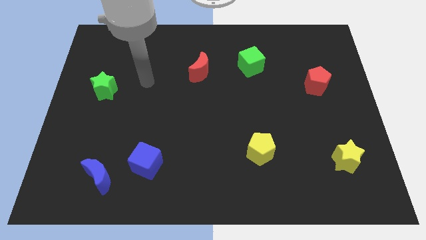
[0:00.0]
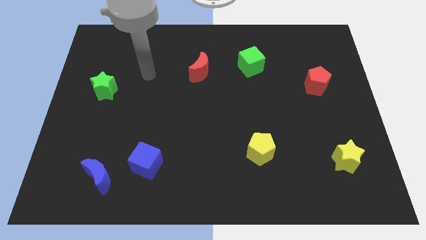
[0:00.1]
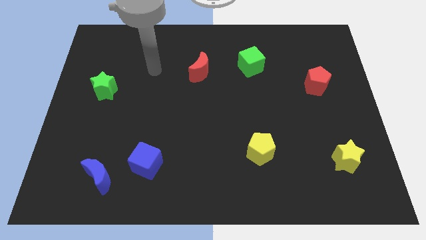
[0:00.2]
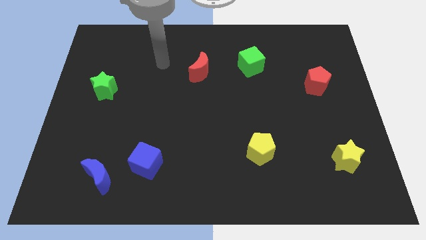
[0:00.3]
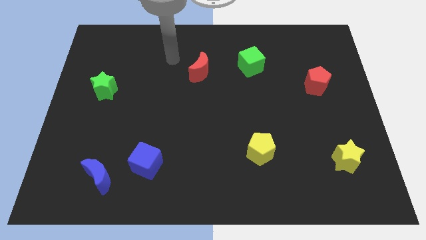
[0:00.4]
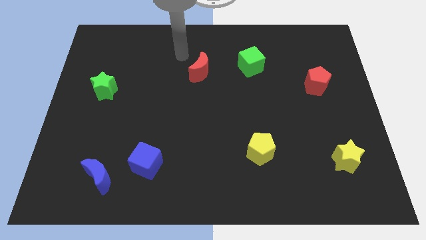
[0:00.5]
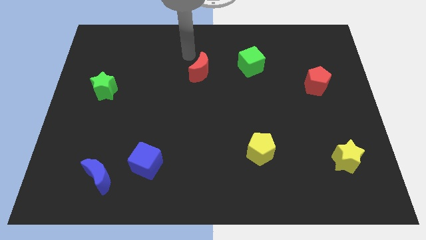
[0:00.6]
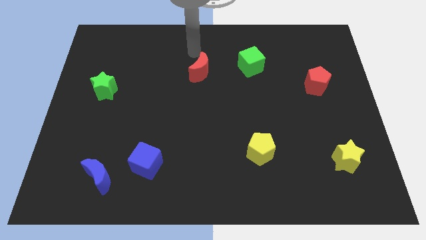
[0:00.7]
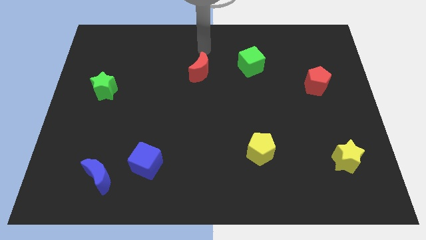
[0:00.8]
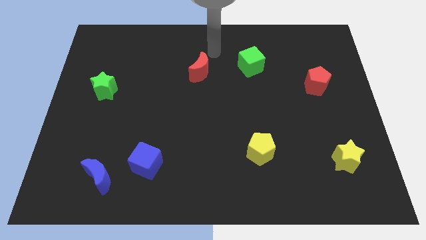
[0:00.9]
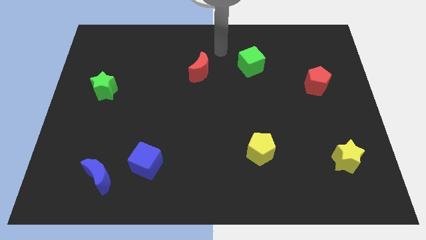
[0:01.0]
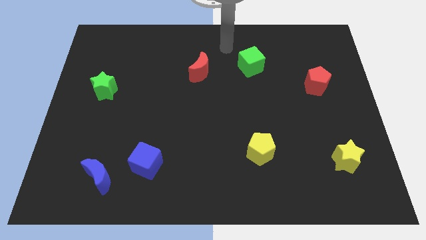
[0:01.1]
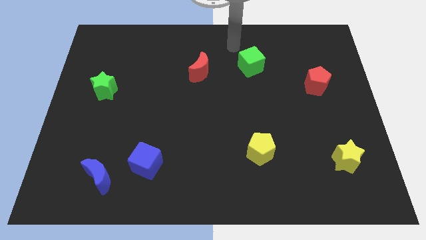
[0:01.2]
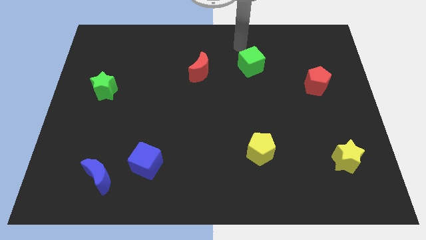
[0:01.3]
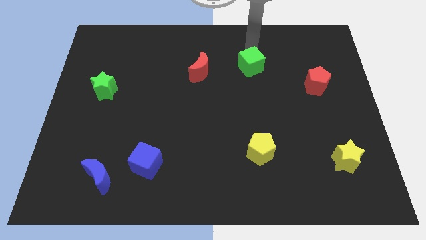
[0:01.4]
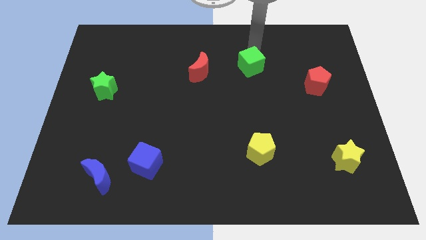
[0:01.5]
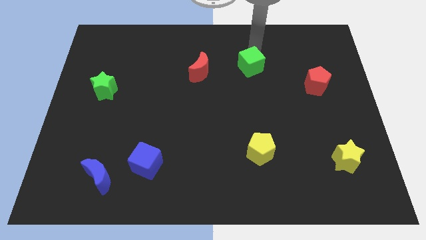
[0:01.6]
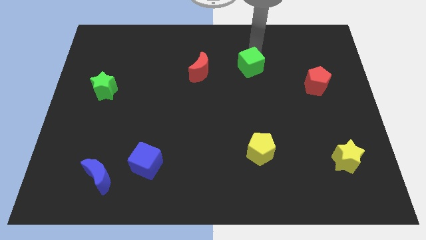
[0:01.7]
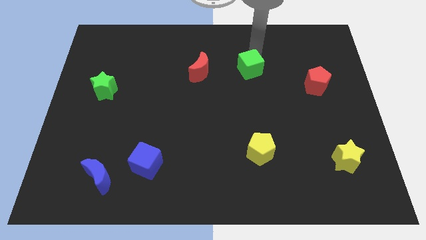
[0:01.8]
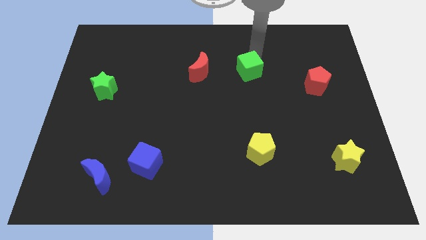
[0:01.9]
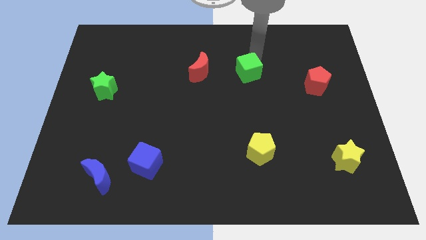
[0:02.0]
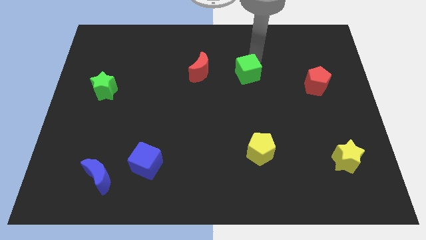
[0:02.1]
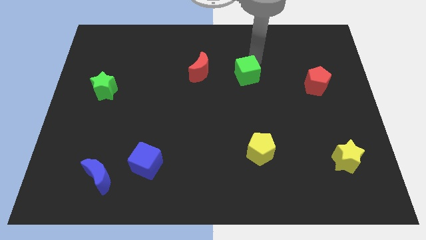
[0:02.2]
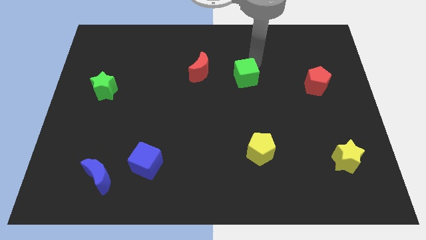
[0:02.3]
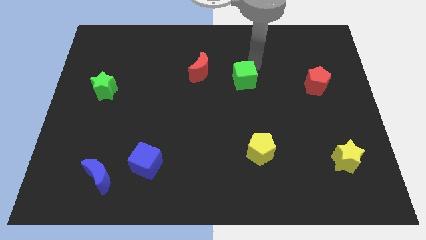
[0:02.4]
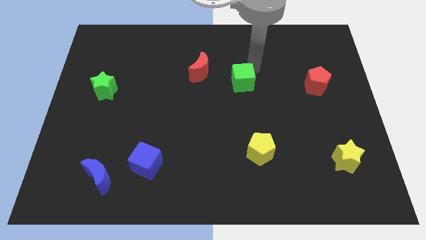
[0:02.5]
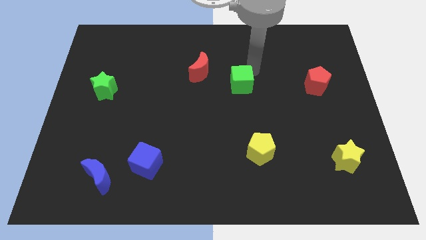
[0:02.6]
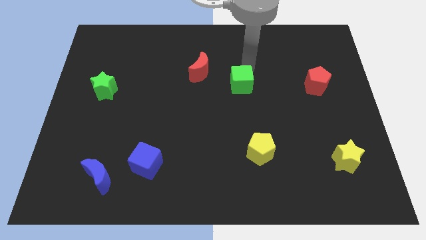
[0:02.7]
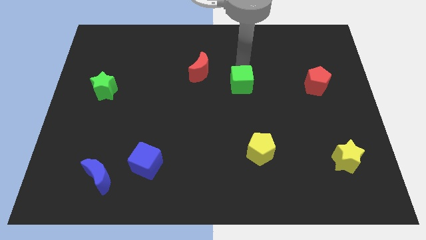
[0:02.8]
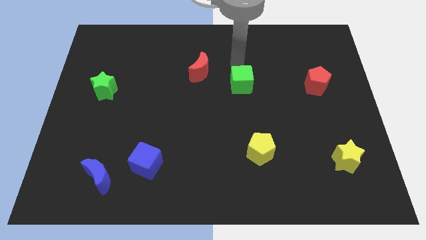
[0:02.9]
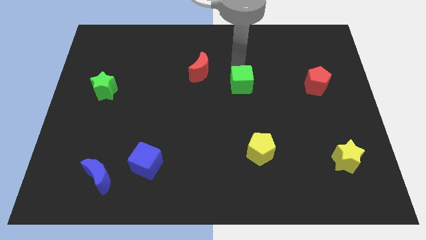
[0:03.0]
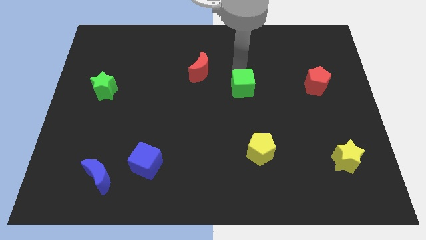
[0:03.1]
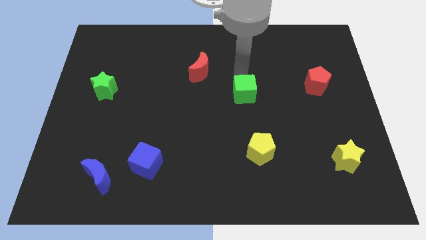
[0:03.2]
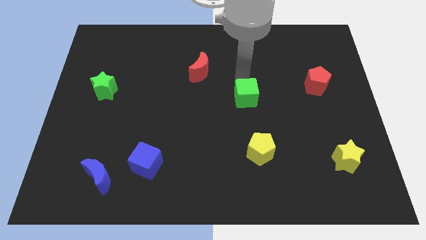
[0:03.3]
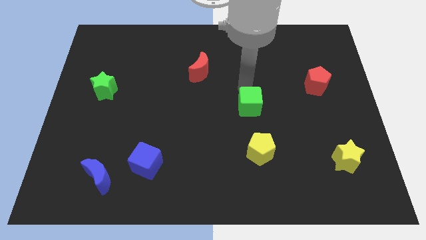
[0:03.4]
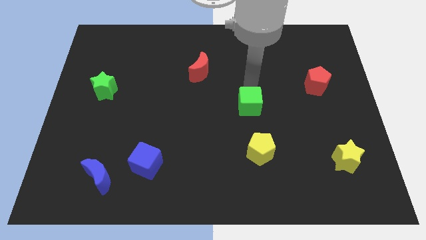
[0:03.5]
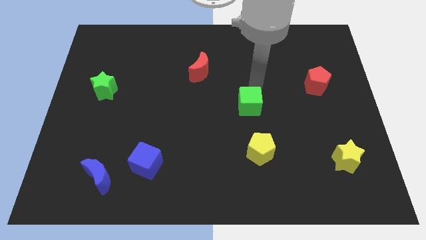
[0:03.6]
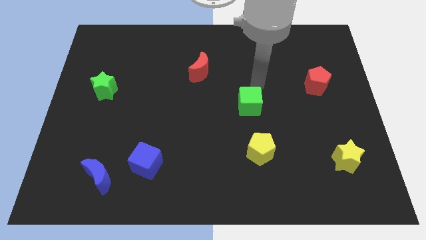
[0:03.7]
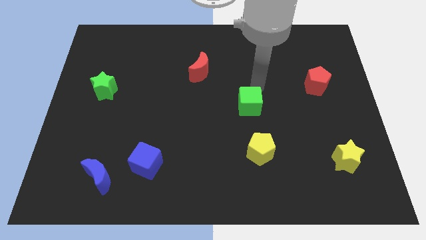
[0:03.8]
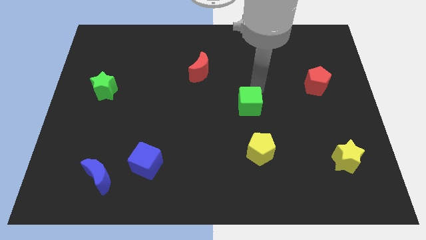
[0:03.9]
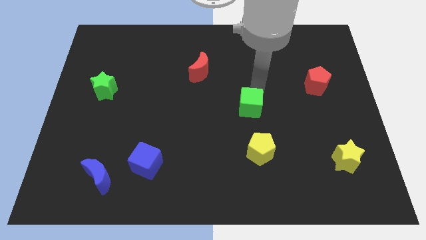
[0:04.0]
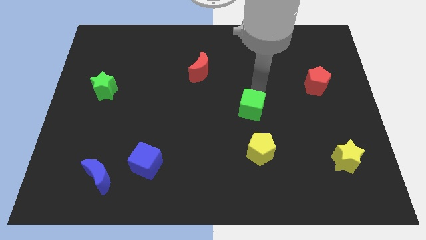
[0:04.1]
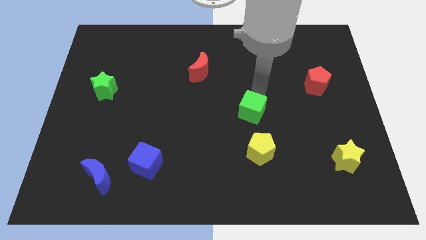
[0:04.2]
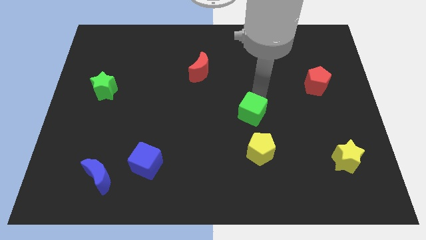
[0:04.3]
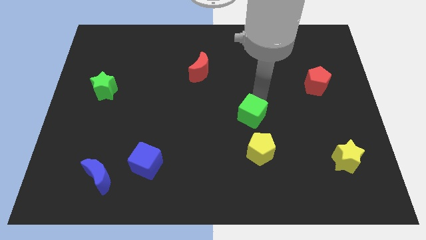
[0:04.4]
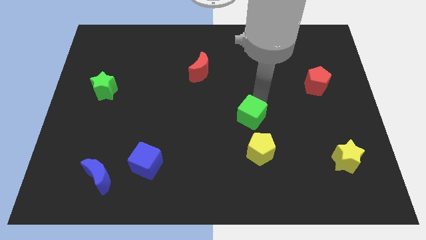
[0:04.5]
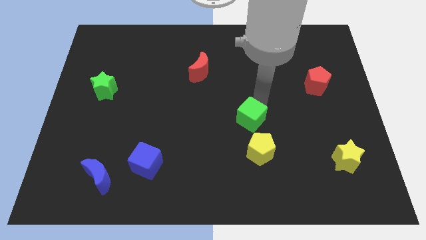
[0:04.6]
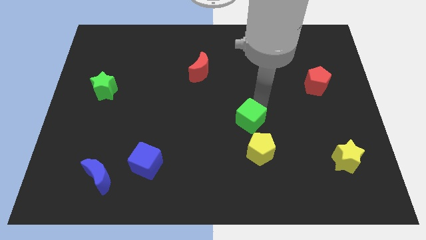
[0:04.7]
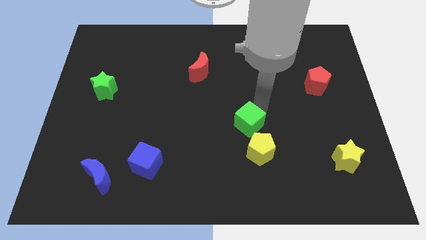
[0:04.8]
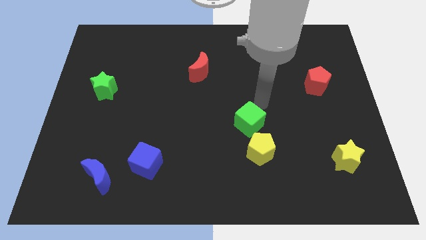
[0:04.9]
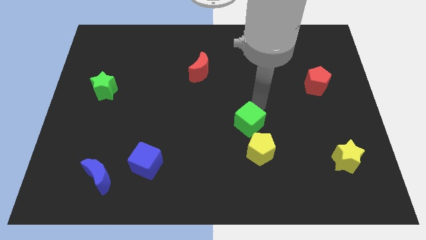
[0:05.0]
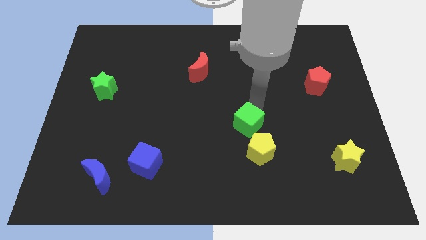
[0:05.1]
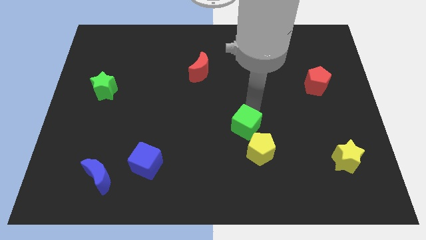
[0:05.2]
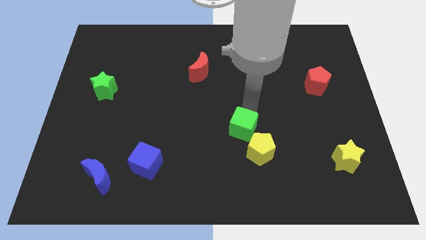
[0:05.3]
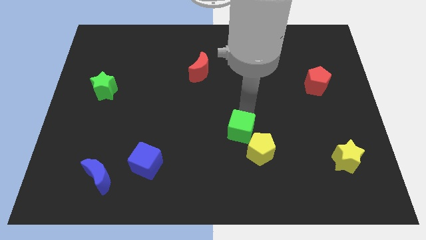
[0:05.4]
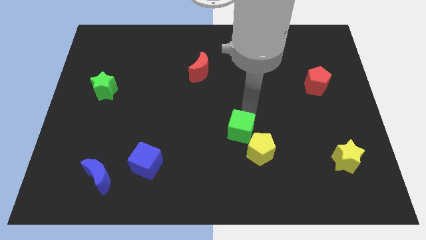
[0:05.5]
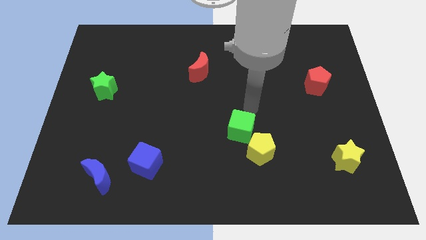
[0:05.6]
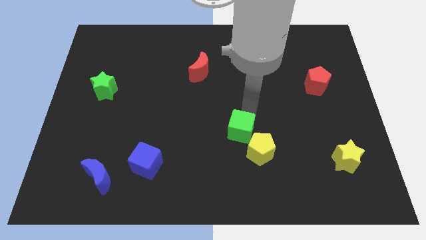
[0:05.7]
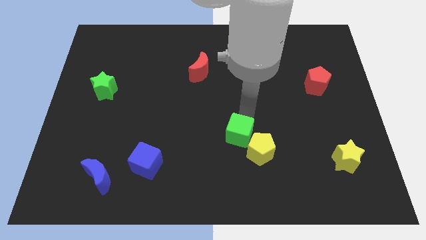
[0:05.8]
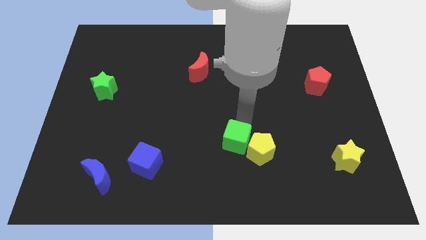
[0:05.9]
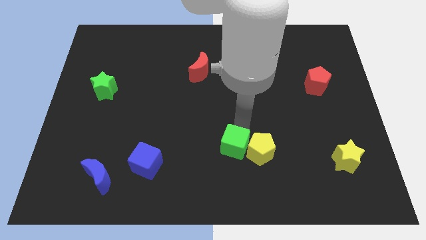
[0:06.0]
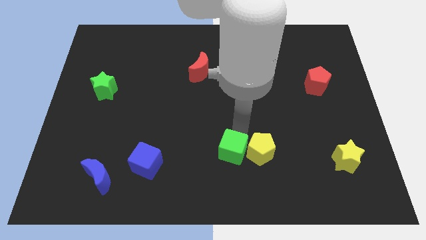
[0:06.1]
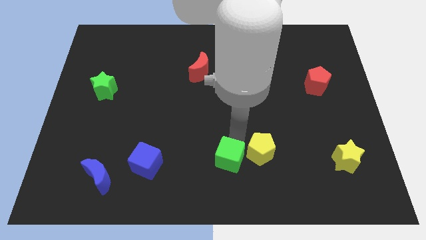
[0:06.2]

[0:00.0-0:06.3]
slide the green cube to the bottom side
